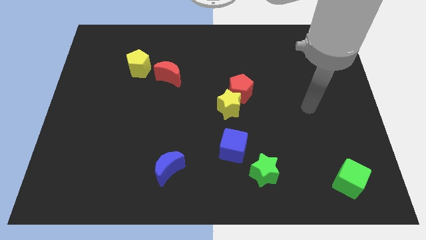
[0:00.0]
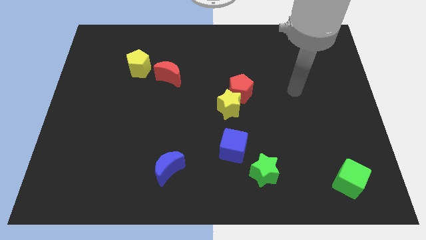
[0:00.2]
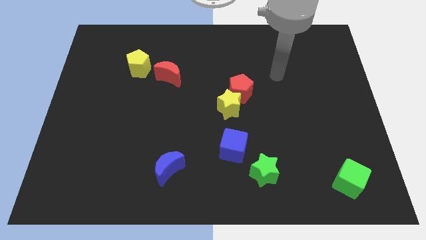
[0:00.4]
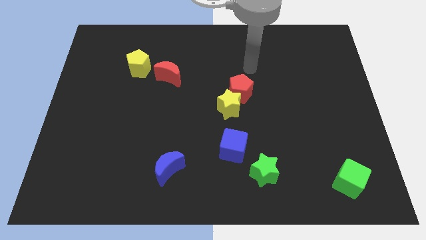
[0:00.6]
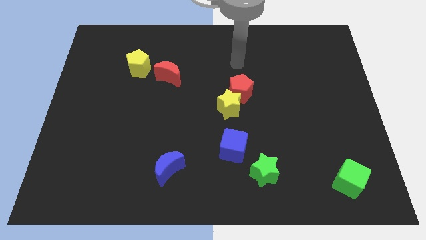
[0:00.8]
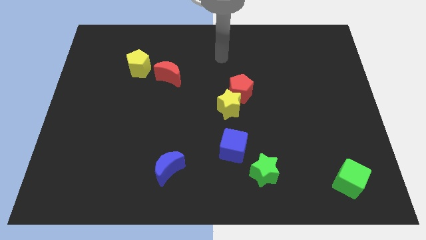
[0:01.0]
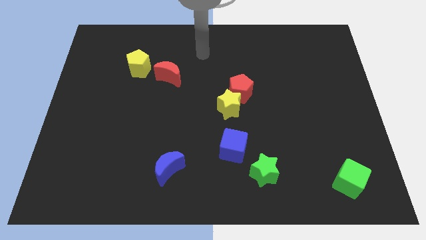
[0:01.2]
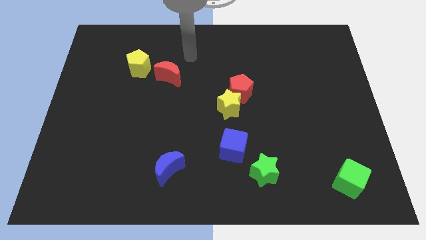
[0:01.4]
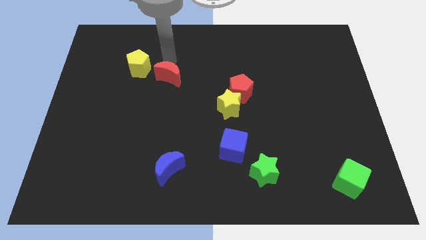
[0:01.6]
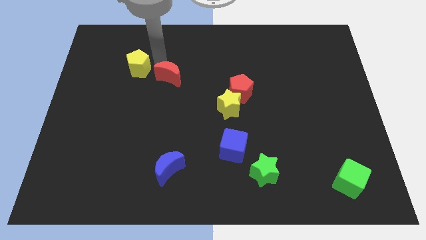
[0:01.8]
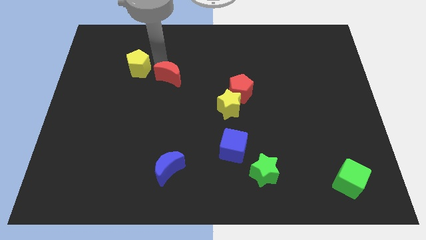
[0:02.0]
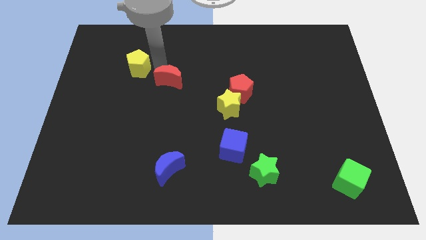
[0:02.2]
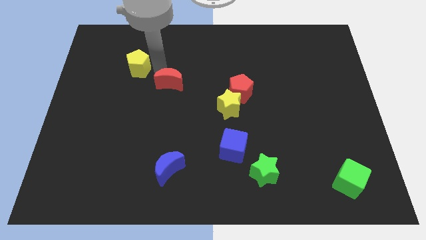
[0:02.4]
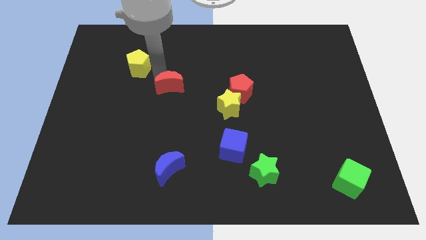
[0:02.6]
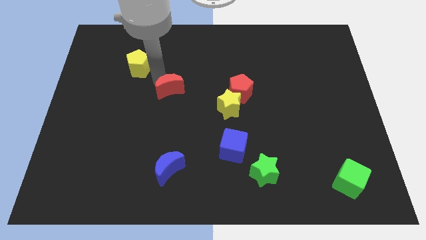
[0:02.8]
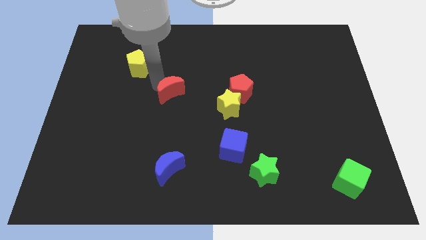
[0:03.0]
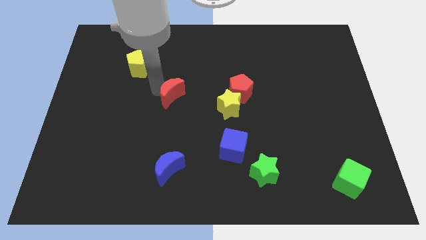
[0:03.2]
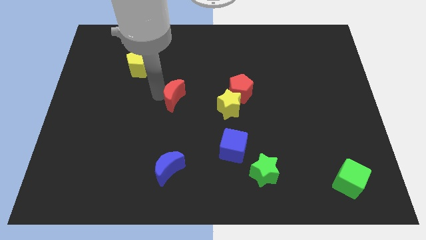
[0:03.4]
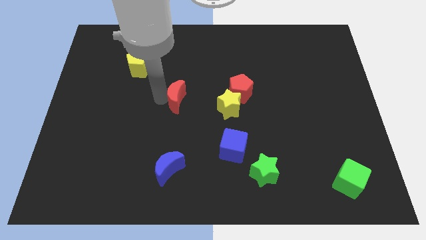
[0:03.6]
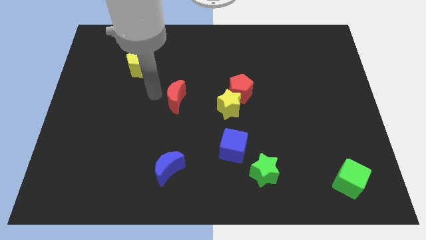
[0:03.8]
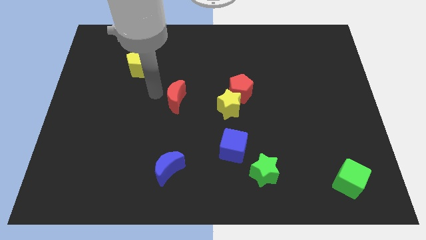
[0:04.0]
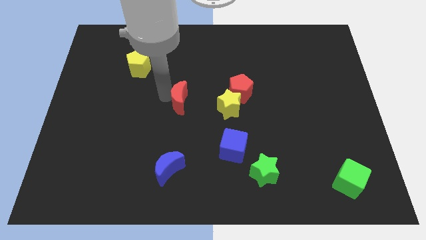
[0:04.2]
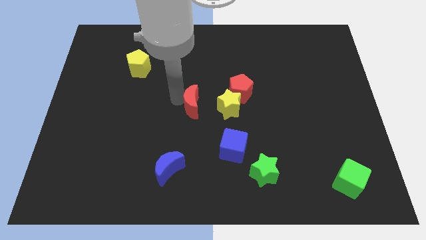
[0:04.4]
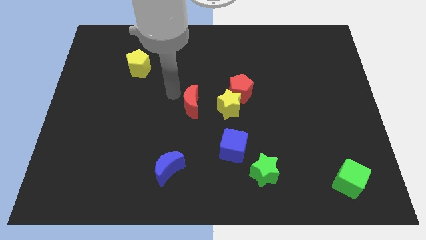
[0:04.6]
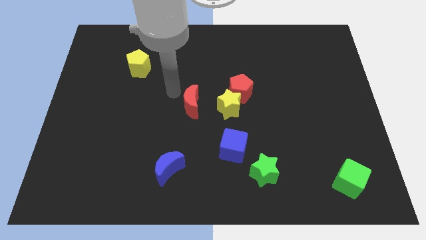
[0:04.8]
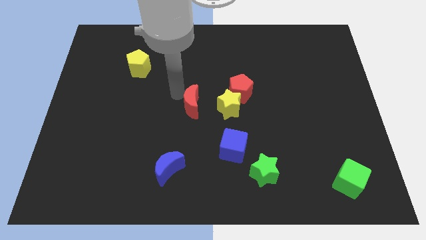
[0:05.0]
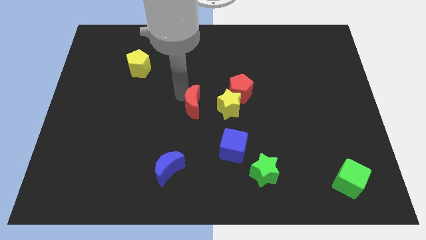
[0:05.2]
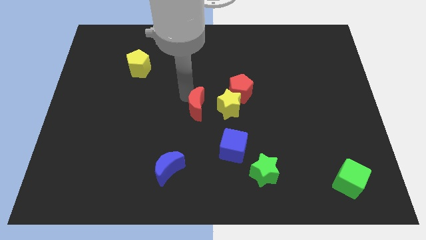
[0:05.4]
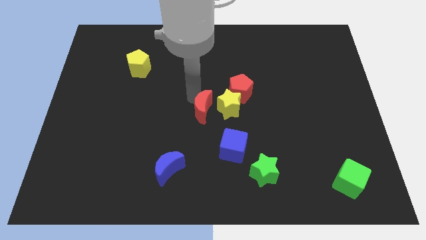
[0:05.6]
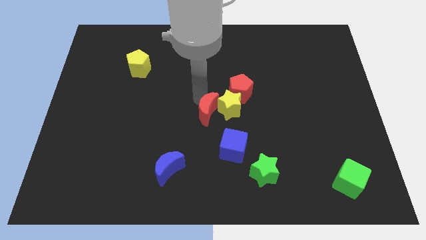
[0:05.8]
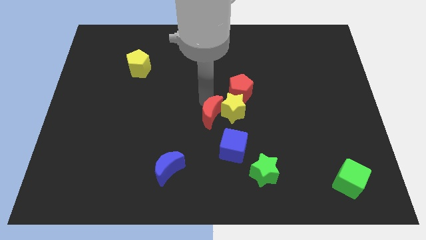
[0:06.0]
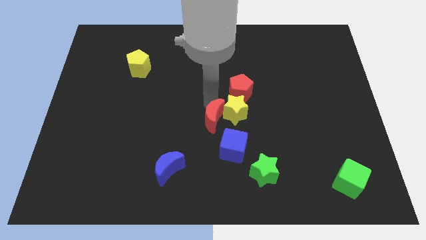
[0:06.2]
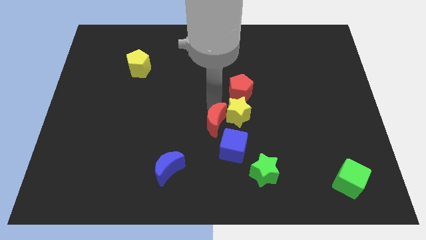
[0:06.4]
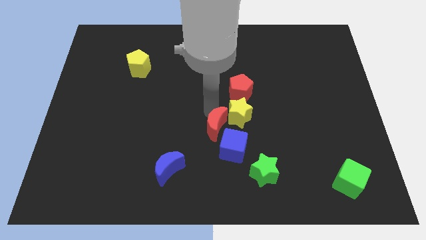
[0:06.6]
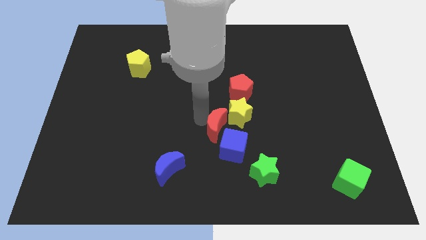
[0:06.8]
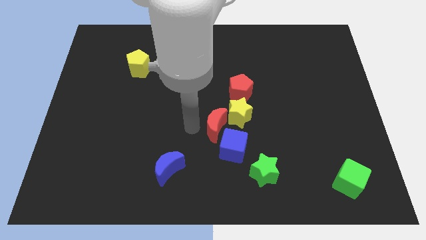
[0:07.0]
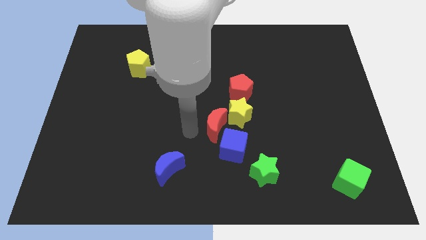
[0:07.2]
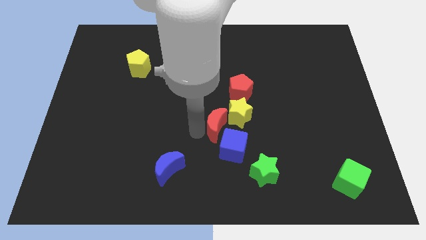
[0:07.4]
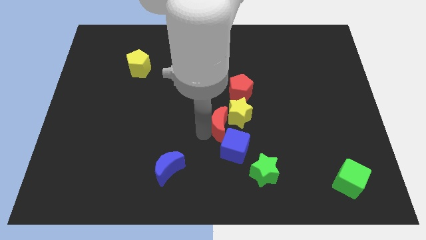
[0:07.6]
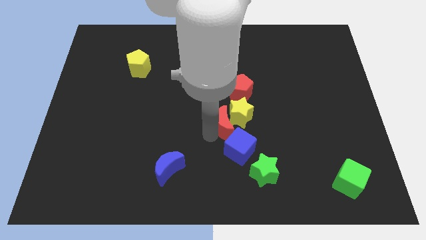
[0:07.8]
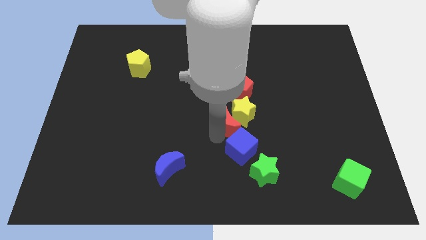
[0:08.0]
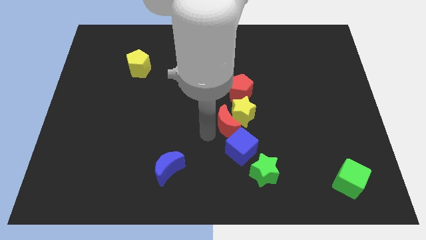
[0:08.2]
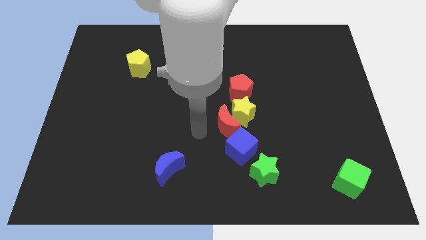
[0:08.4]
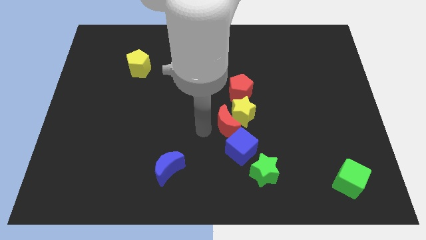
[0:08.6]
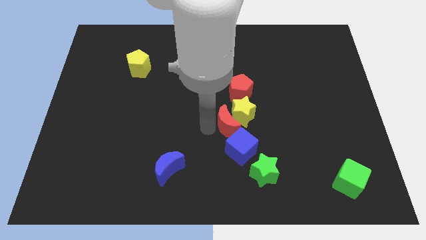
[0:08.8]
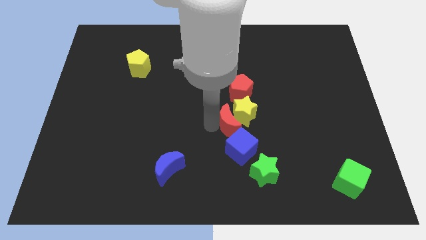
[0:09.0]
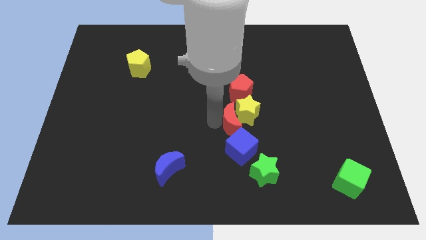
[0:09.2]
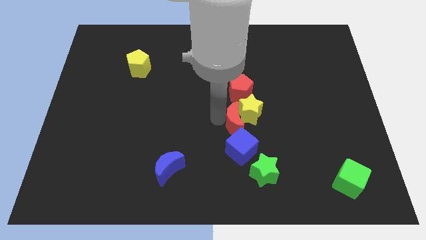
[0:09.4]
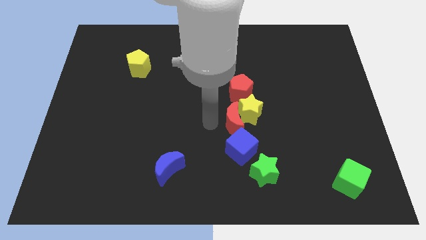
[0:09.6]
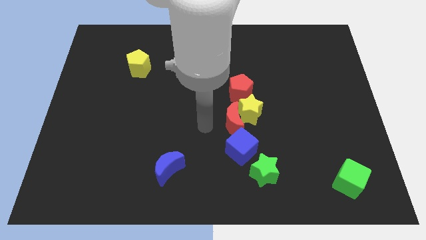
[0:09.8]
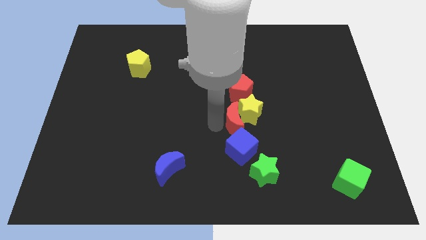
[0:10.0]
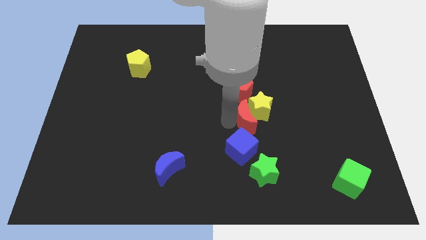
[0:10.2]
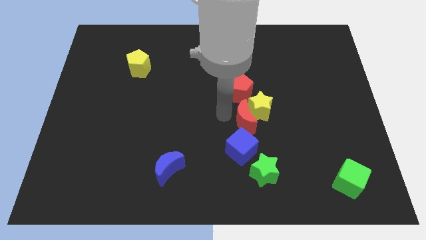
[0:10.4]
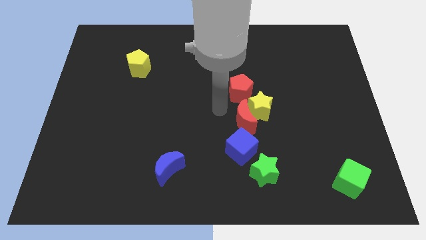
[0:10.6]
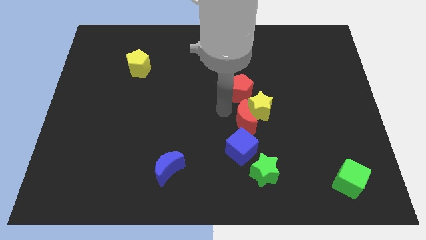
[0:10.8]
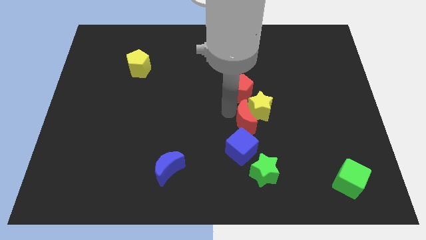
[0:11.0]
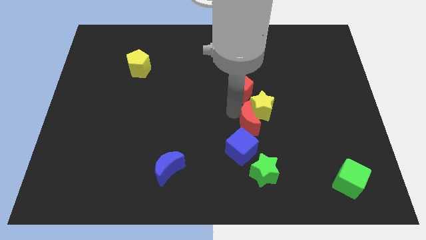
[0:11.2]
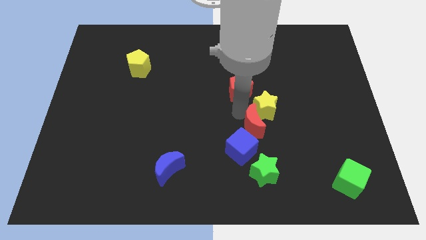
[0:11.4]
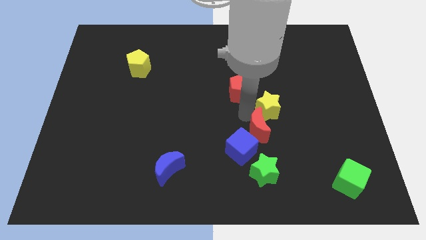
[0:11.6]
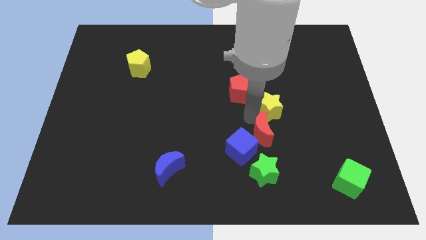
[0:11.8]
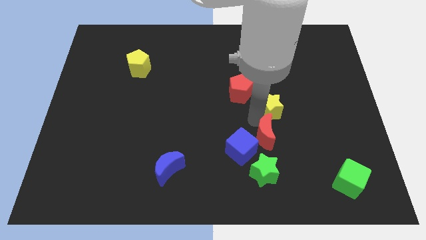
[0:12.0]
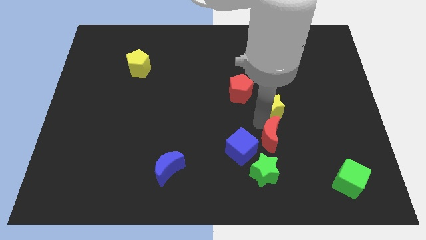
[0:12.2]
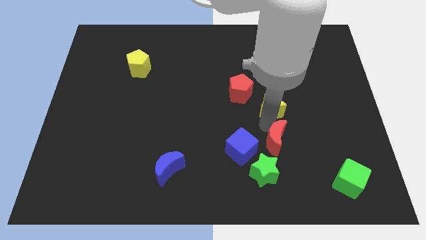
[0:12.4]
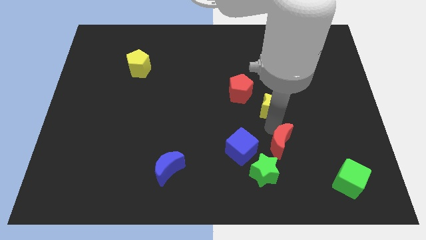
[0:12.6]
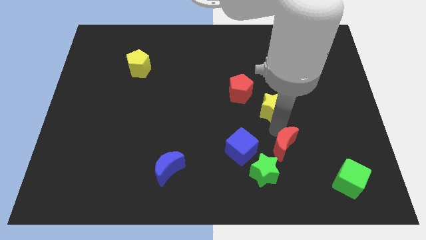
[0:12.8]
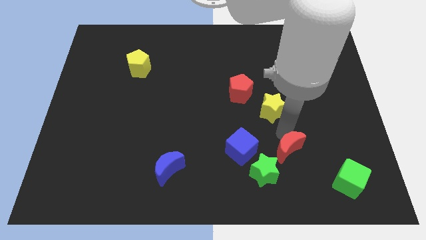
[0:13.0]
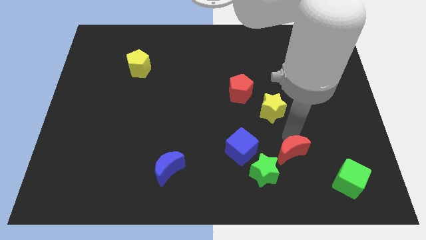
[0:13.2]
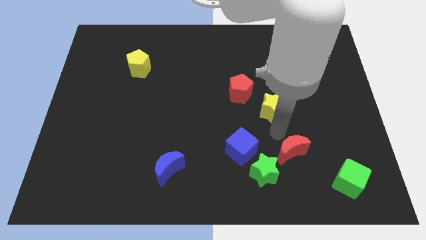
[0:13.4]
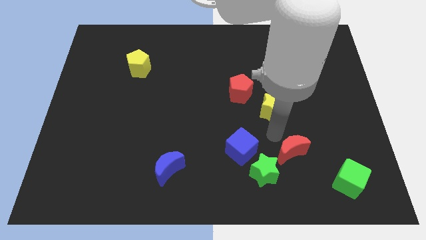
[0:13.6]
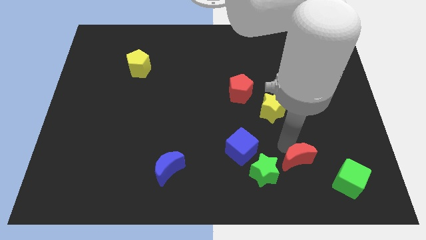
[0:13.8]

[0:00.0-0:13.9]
slide the red moon right of the green star
